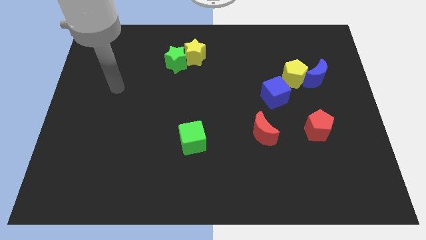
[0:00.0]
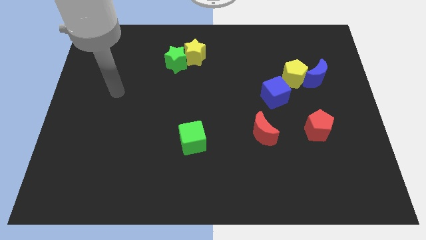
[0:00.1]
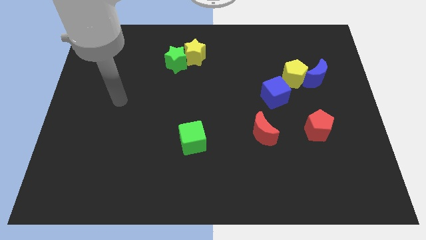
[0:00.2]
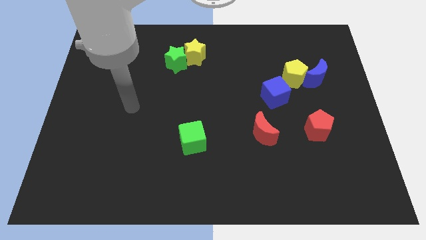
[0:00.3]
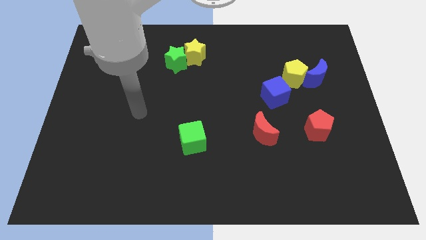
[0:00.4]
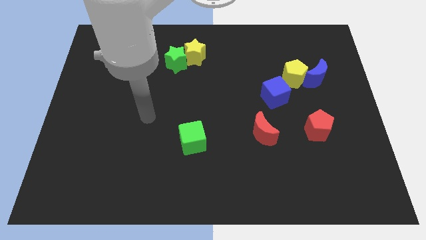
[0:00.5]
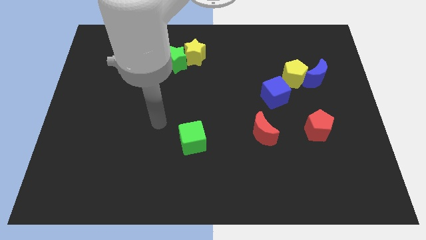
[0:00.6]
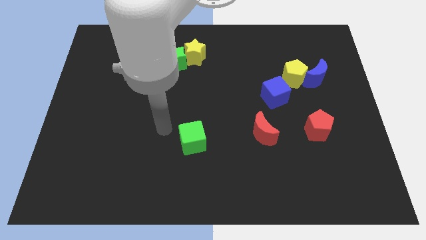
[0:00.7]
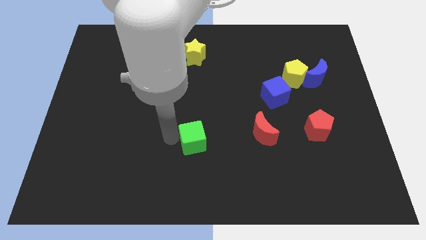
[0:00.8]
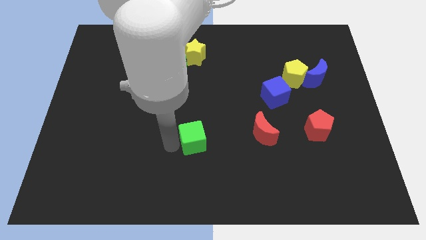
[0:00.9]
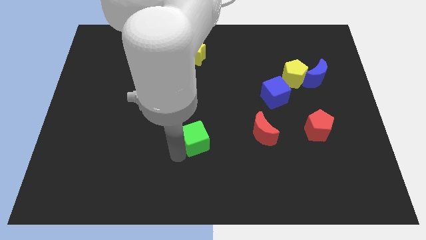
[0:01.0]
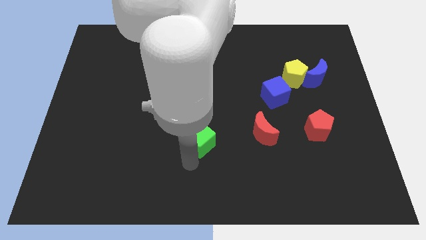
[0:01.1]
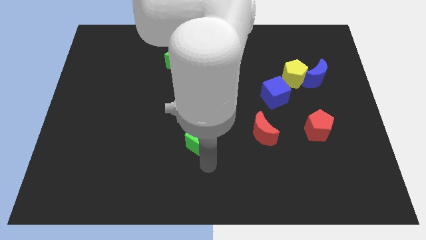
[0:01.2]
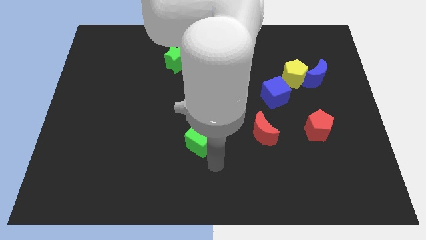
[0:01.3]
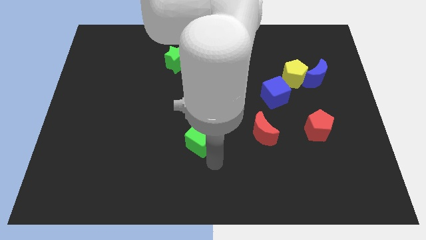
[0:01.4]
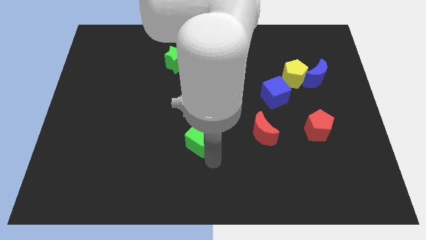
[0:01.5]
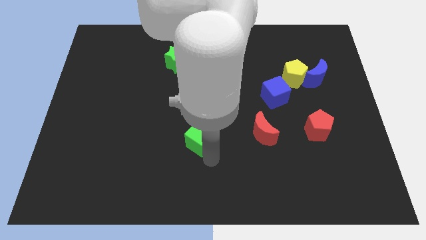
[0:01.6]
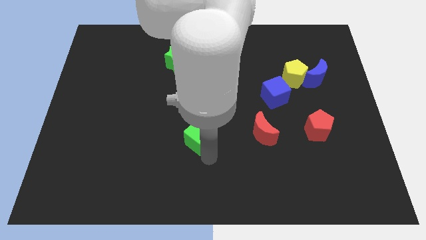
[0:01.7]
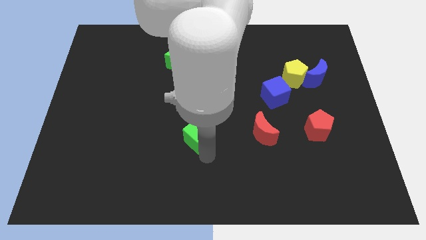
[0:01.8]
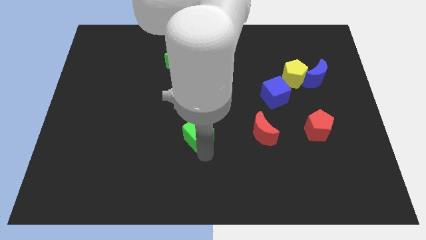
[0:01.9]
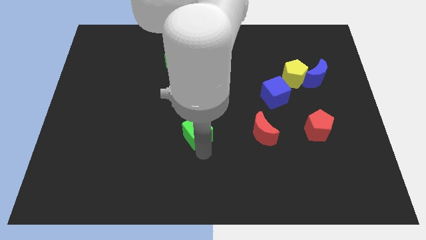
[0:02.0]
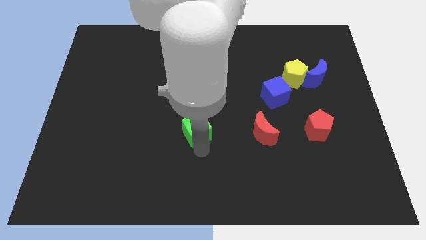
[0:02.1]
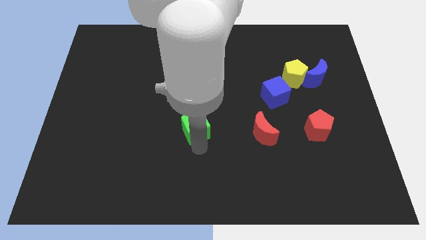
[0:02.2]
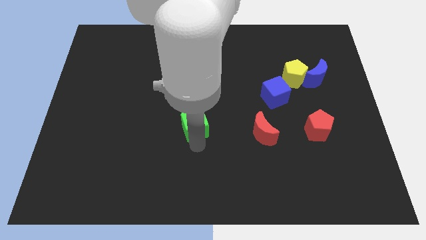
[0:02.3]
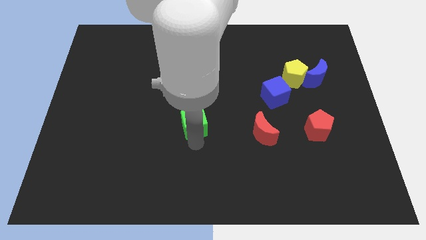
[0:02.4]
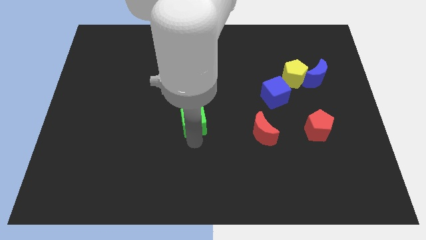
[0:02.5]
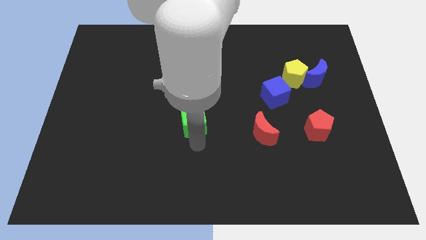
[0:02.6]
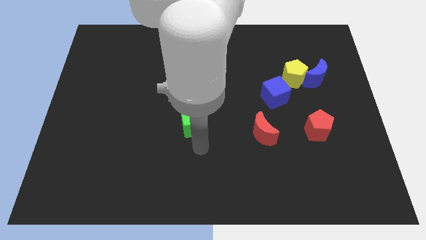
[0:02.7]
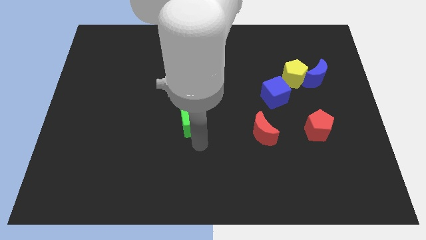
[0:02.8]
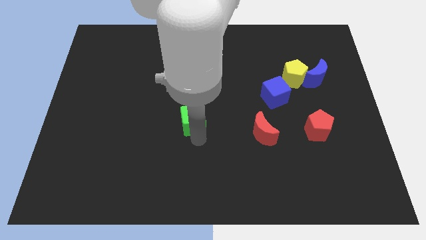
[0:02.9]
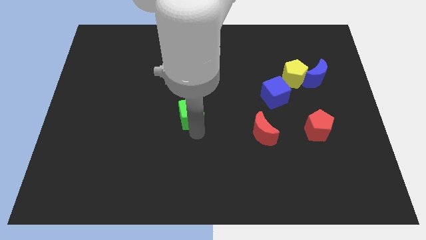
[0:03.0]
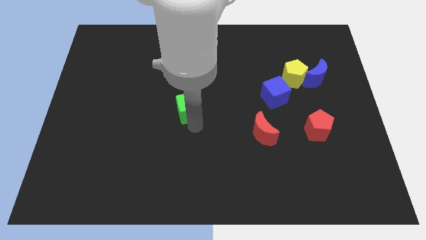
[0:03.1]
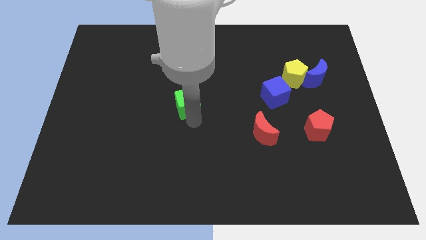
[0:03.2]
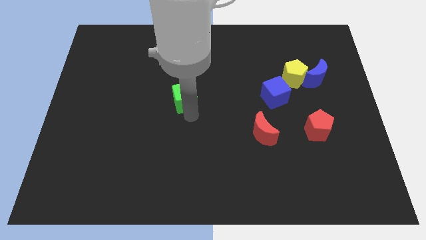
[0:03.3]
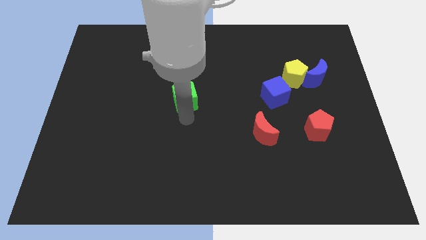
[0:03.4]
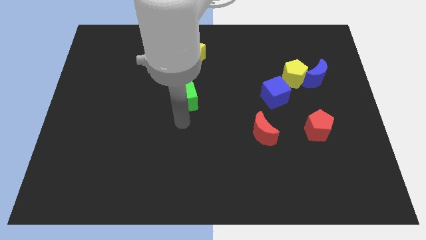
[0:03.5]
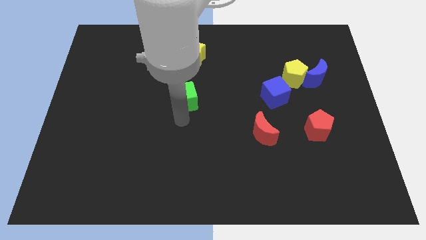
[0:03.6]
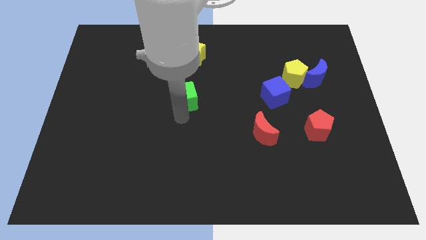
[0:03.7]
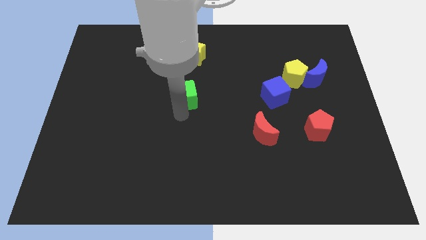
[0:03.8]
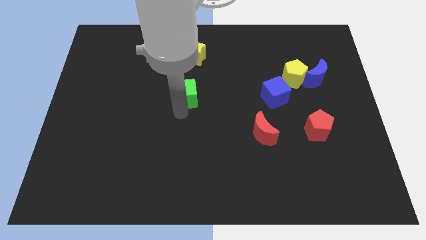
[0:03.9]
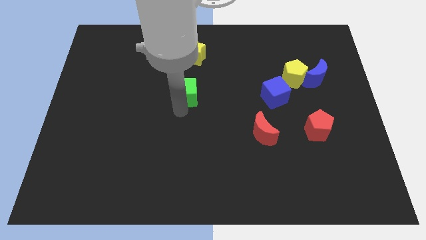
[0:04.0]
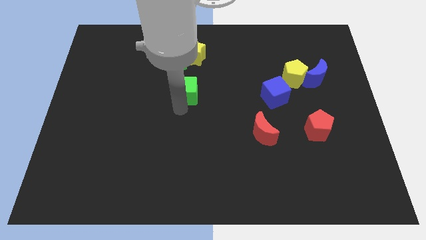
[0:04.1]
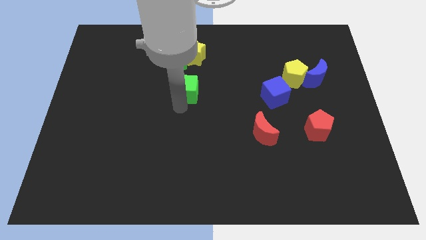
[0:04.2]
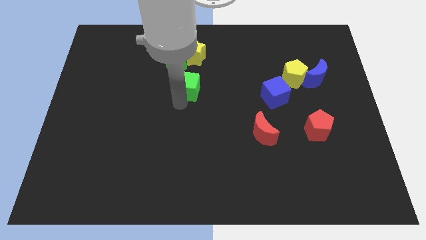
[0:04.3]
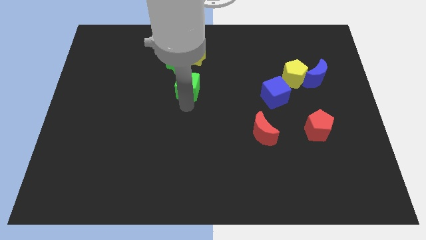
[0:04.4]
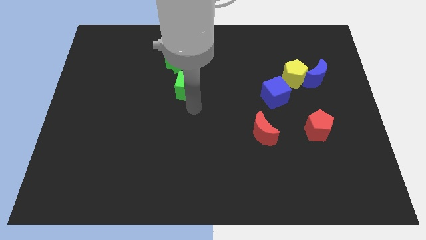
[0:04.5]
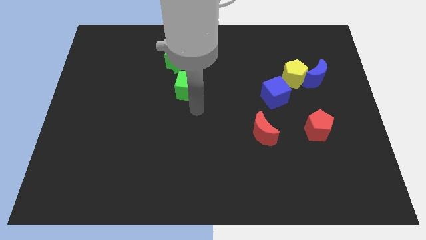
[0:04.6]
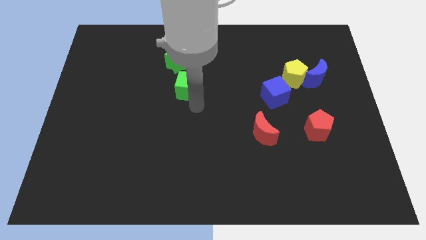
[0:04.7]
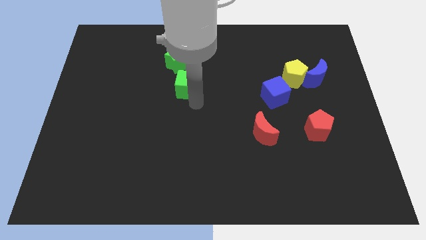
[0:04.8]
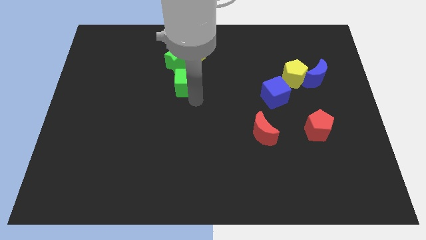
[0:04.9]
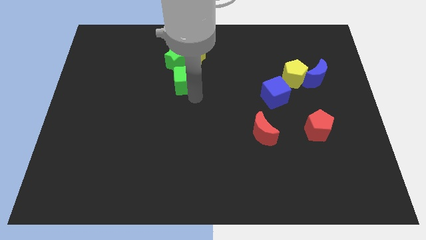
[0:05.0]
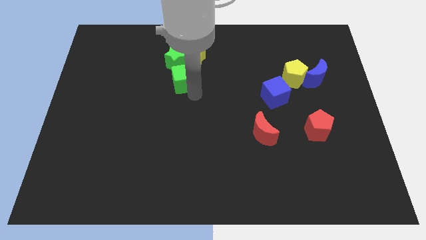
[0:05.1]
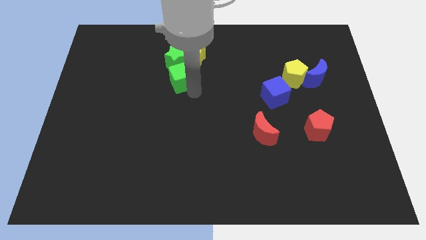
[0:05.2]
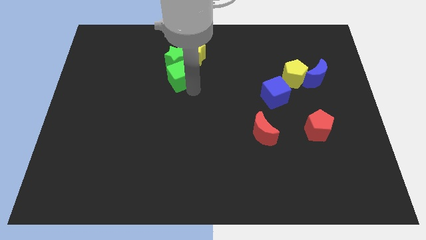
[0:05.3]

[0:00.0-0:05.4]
put the green cube to the green star

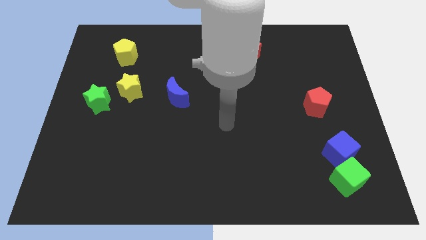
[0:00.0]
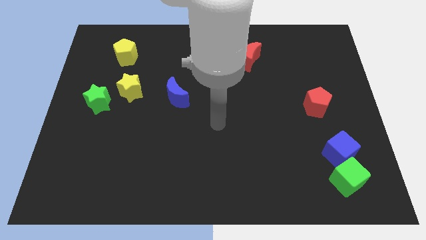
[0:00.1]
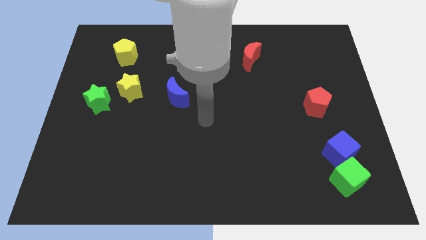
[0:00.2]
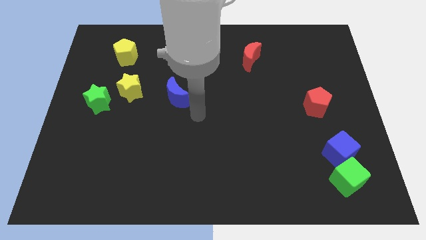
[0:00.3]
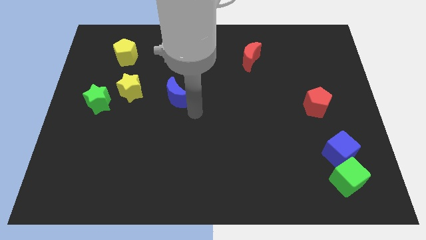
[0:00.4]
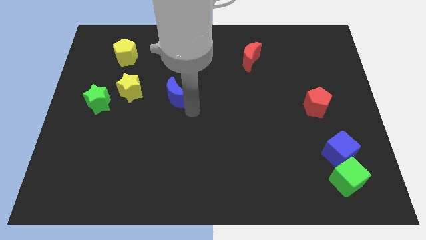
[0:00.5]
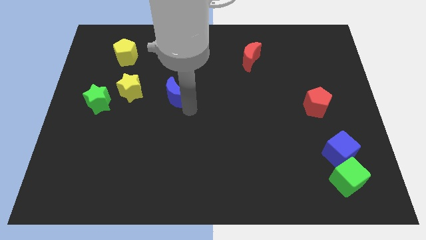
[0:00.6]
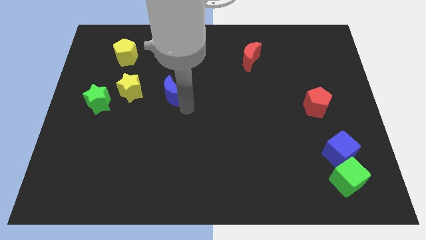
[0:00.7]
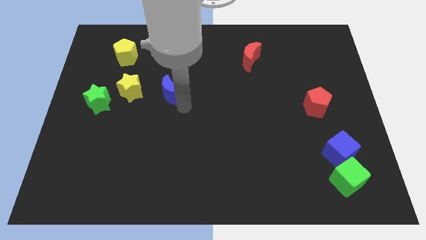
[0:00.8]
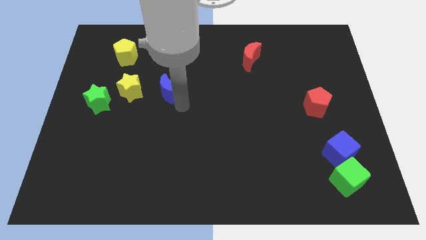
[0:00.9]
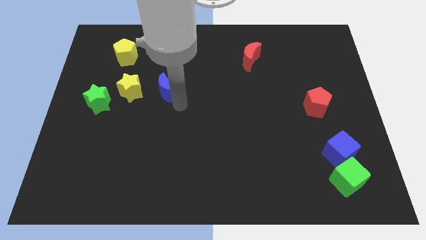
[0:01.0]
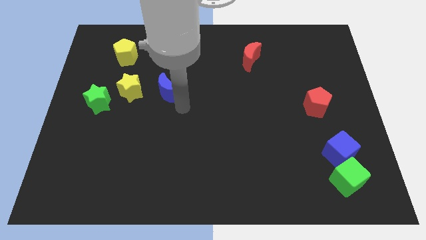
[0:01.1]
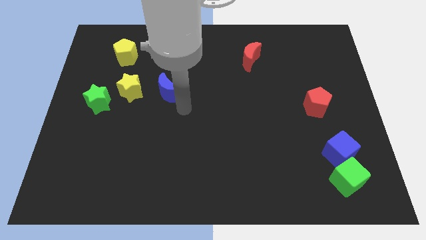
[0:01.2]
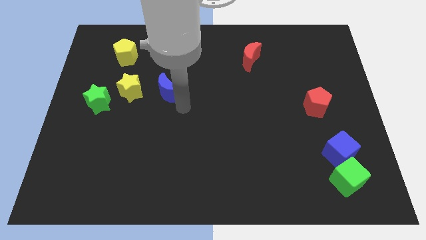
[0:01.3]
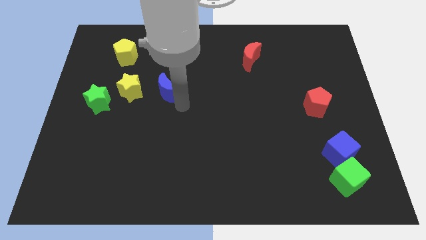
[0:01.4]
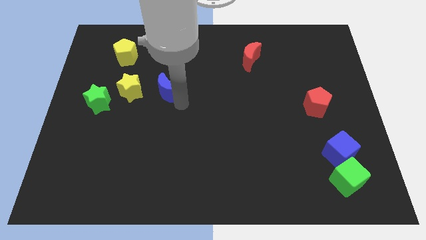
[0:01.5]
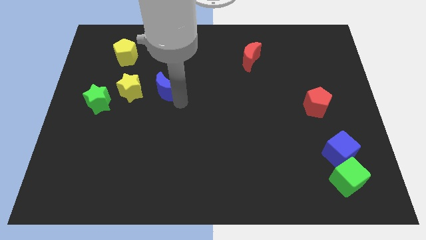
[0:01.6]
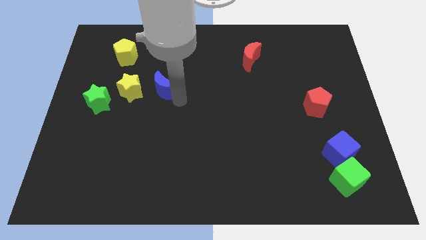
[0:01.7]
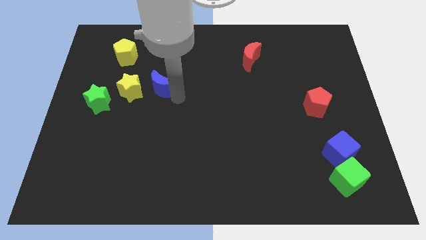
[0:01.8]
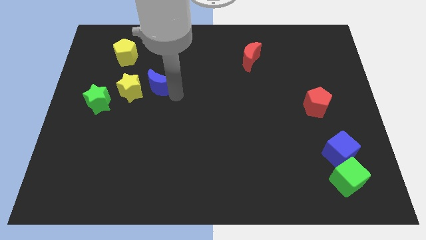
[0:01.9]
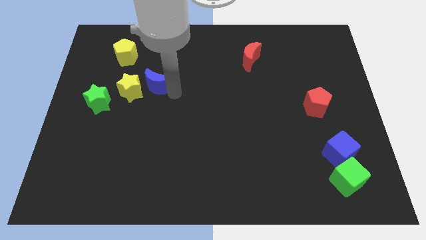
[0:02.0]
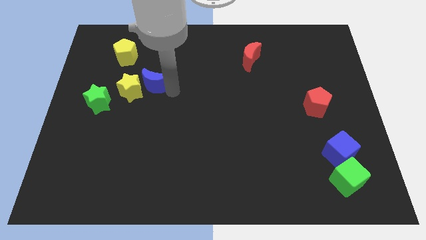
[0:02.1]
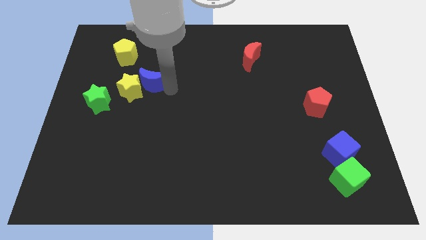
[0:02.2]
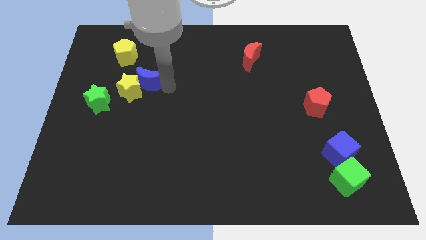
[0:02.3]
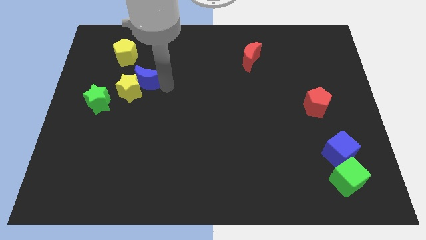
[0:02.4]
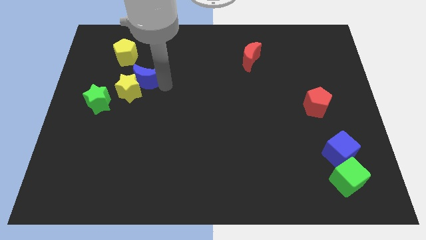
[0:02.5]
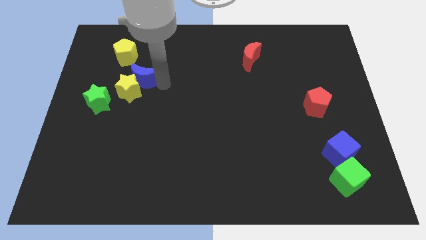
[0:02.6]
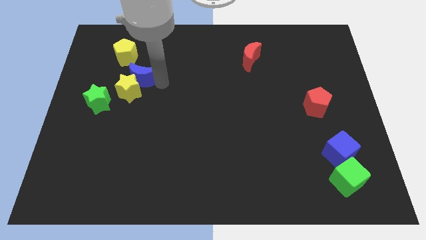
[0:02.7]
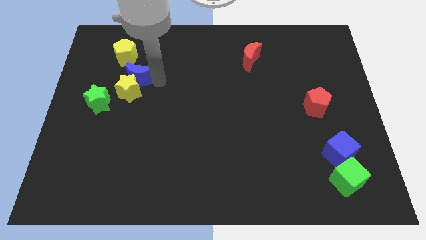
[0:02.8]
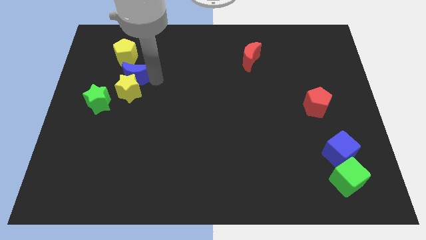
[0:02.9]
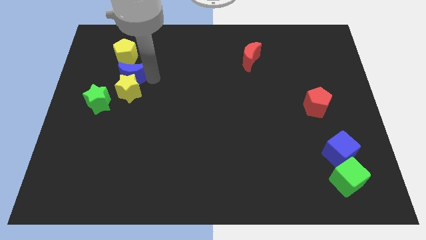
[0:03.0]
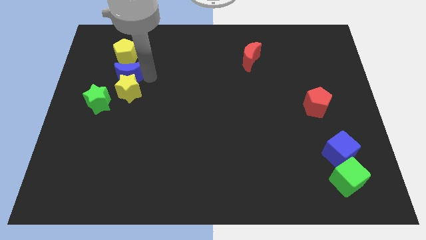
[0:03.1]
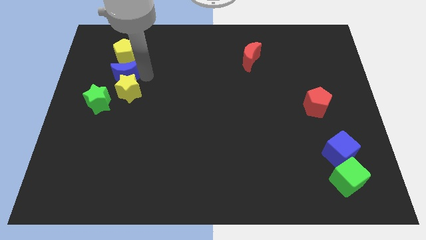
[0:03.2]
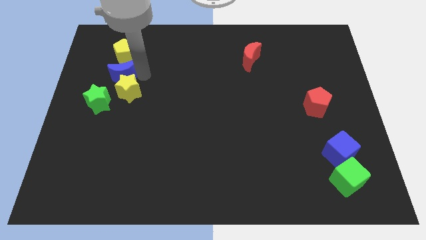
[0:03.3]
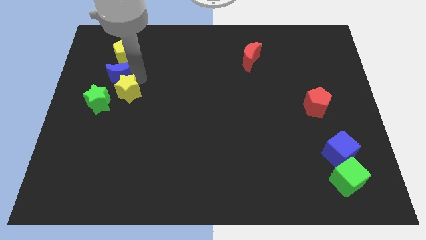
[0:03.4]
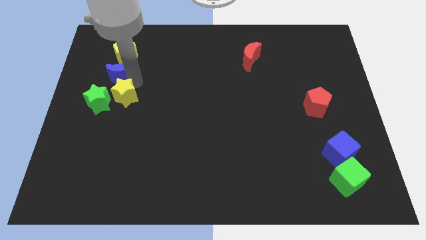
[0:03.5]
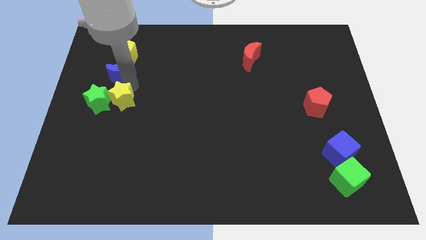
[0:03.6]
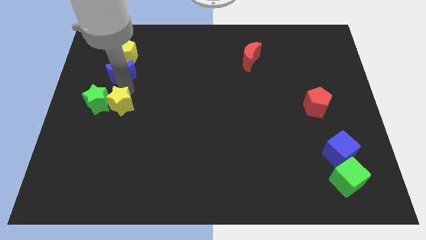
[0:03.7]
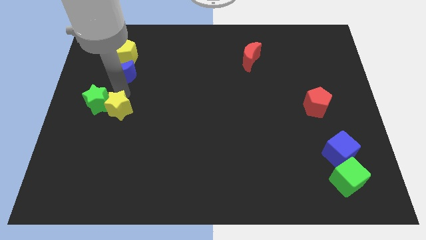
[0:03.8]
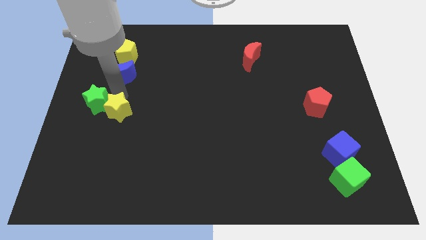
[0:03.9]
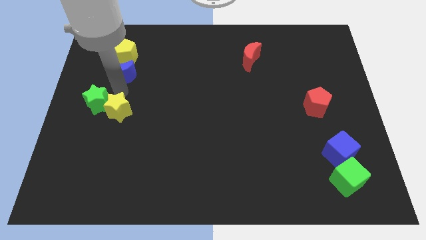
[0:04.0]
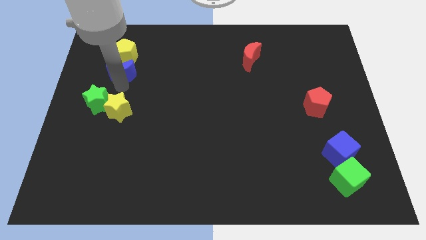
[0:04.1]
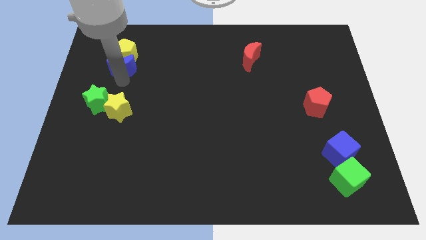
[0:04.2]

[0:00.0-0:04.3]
move the blue moon towards the yellow pentagon
